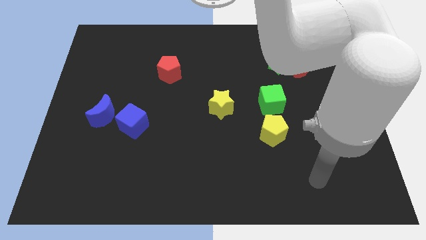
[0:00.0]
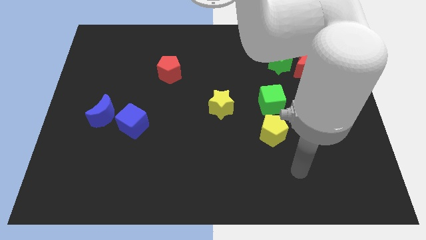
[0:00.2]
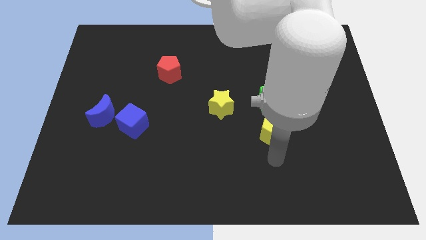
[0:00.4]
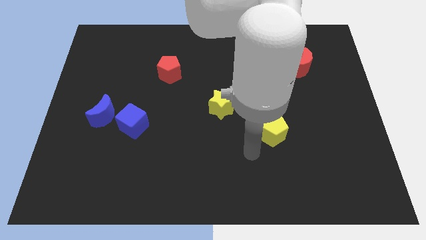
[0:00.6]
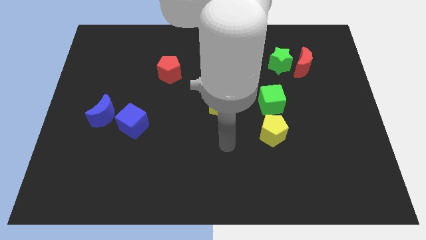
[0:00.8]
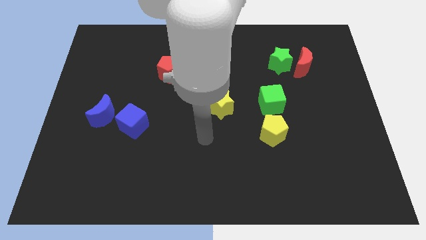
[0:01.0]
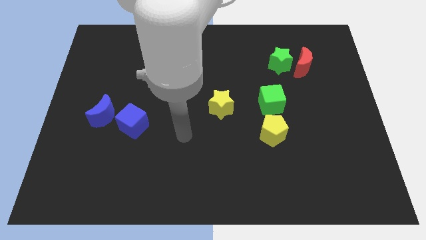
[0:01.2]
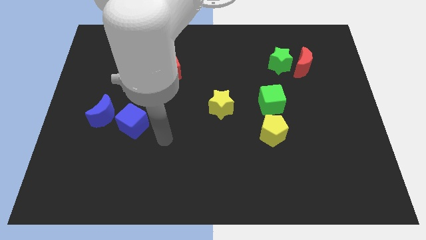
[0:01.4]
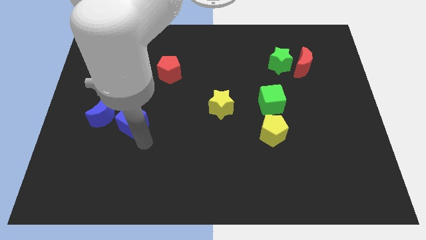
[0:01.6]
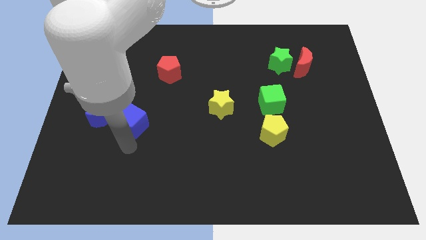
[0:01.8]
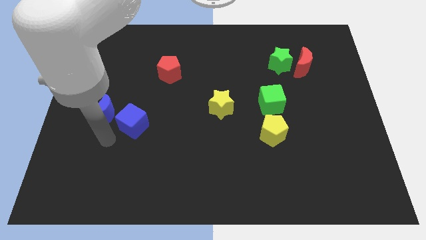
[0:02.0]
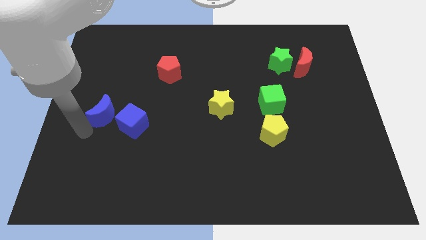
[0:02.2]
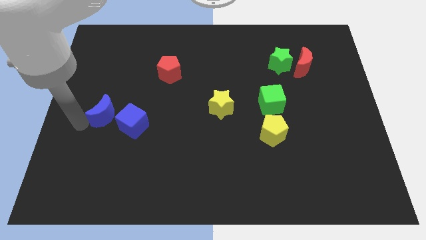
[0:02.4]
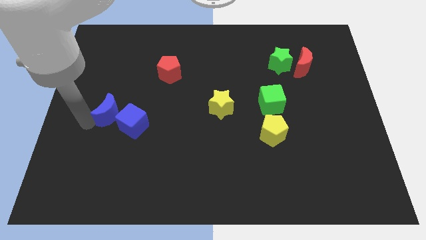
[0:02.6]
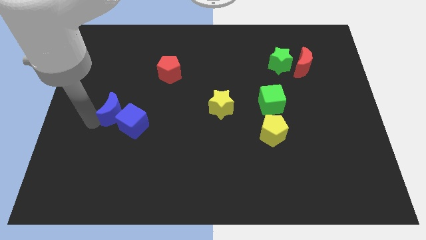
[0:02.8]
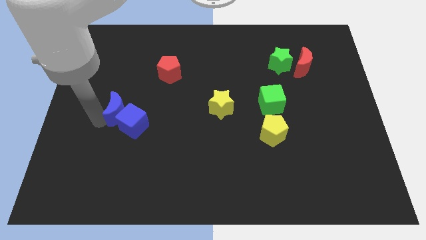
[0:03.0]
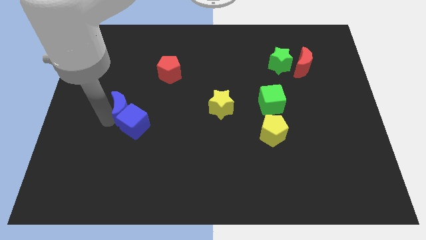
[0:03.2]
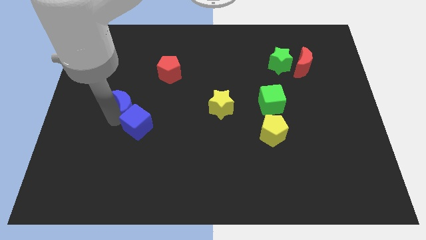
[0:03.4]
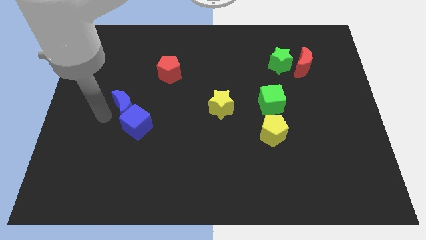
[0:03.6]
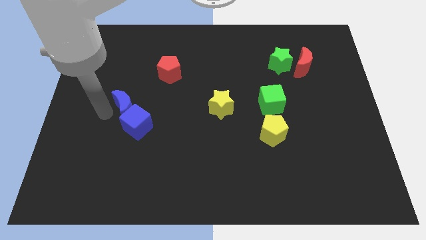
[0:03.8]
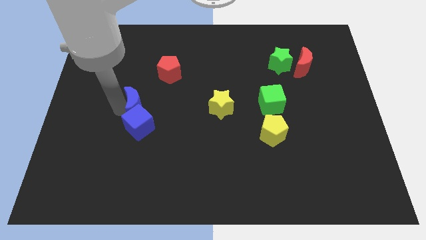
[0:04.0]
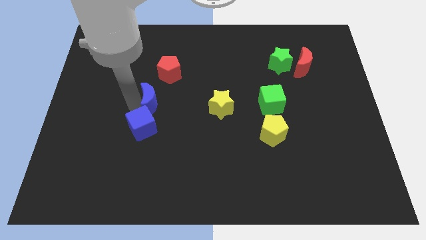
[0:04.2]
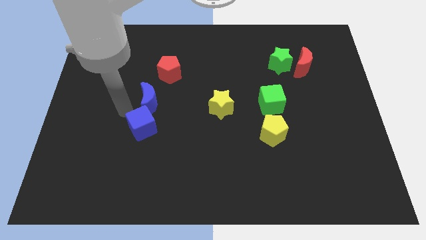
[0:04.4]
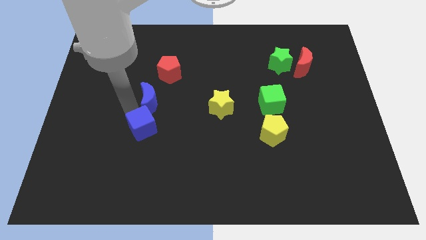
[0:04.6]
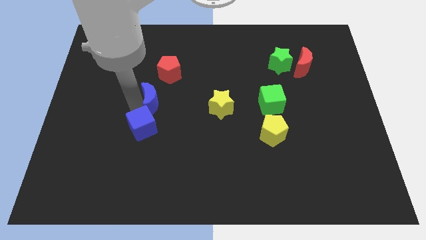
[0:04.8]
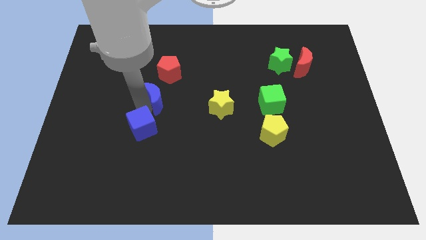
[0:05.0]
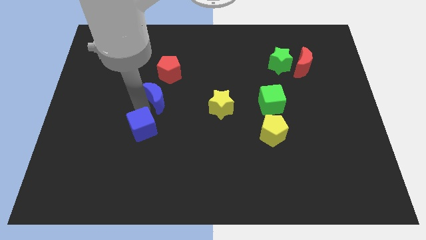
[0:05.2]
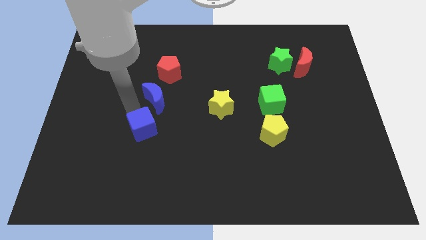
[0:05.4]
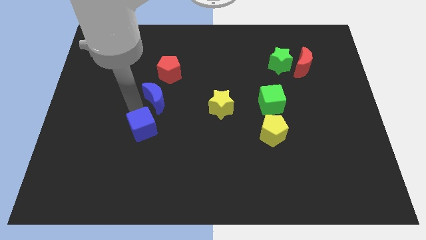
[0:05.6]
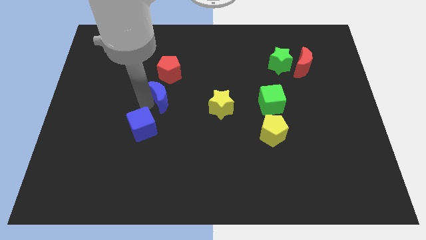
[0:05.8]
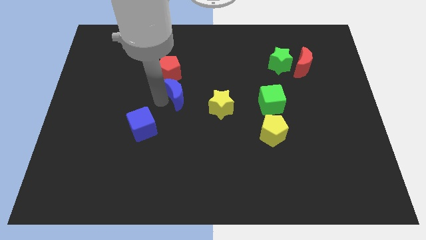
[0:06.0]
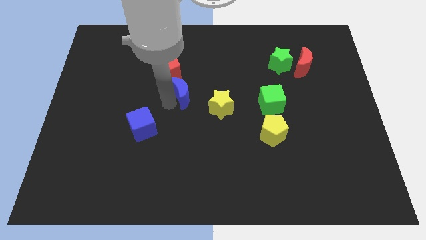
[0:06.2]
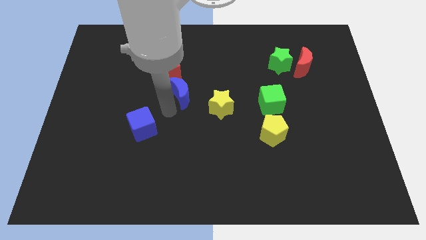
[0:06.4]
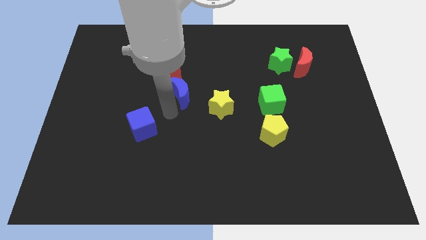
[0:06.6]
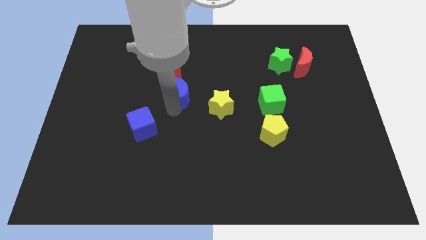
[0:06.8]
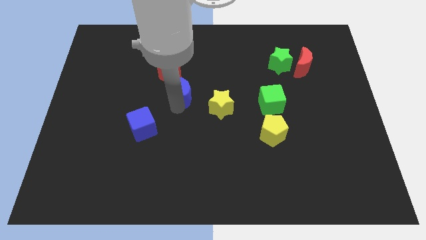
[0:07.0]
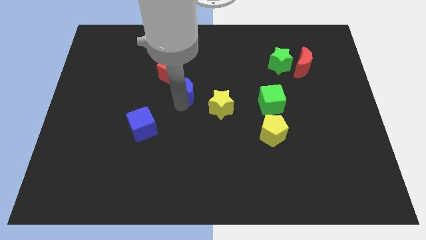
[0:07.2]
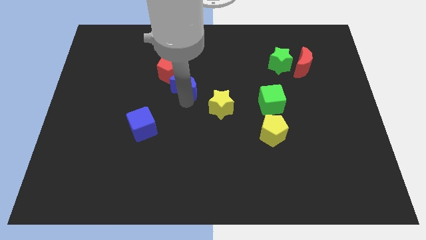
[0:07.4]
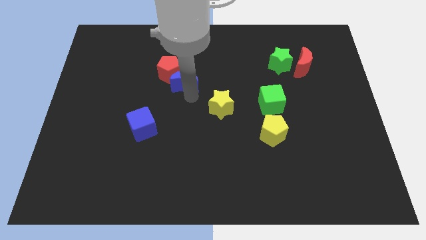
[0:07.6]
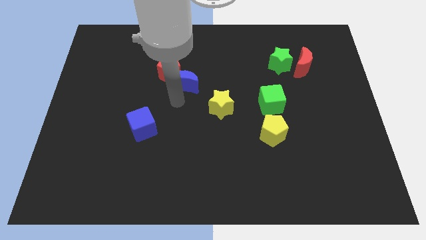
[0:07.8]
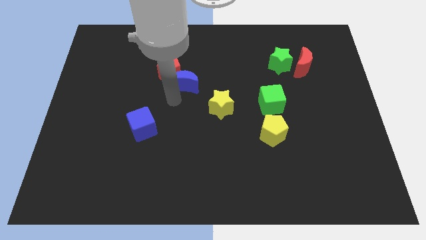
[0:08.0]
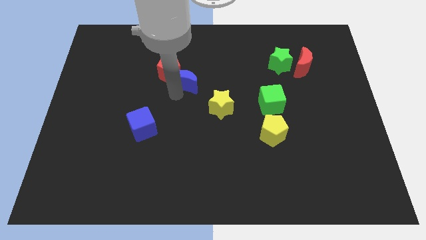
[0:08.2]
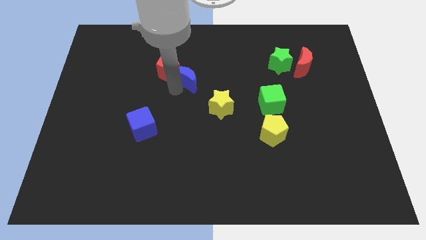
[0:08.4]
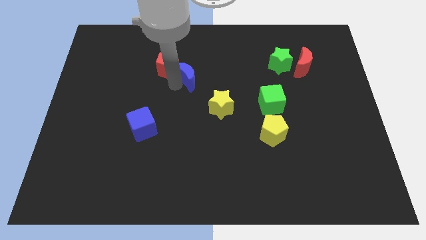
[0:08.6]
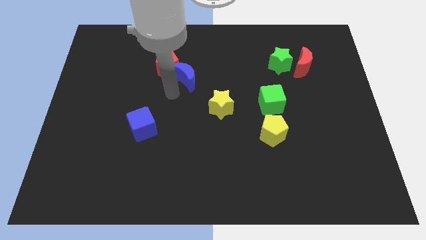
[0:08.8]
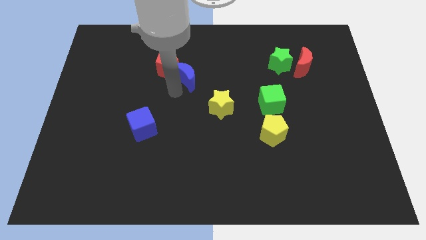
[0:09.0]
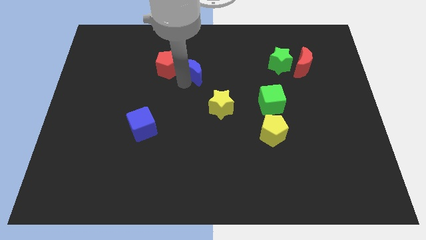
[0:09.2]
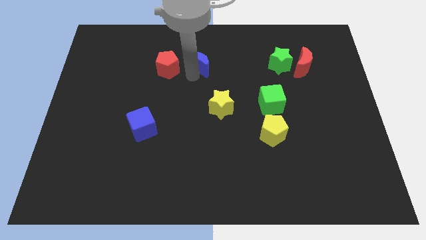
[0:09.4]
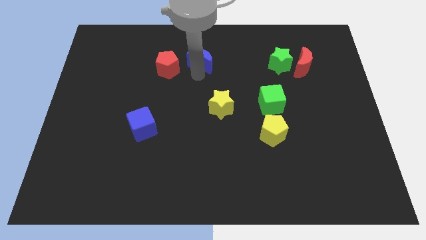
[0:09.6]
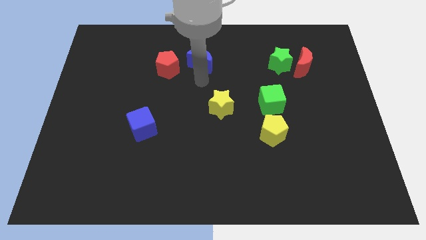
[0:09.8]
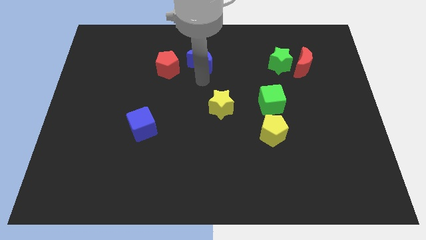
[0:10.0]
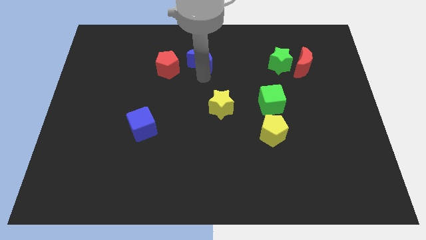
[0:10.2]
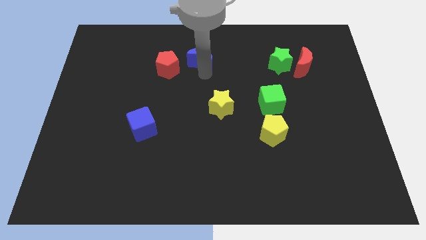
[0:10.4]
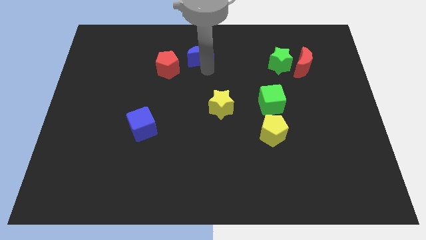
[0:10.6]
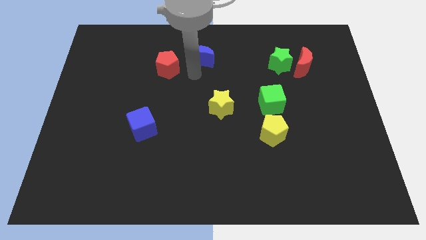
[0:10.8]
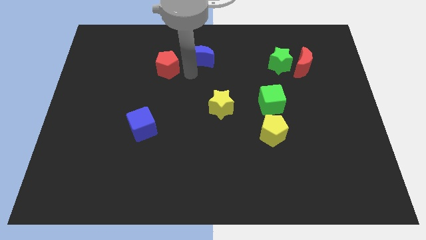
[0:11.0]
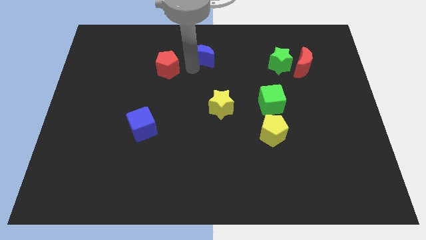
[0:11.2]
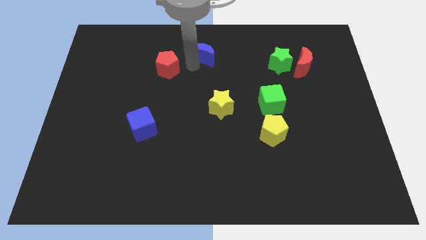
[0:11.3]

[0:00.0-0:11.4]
move the blue moon to the top side

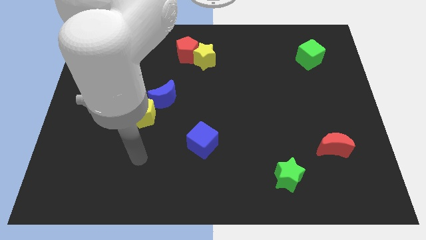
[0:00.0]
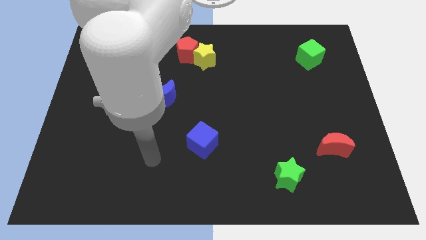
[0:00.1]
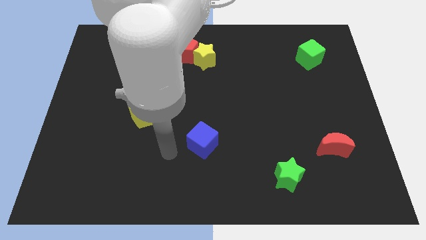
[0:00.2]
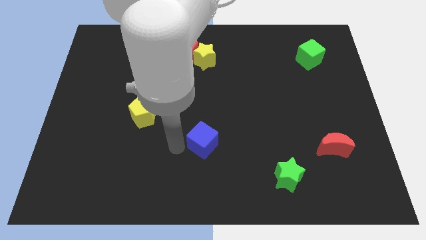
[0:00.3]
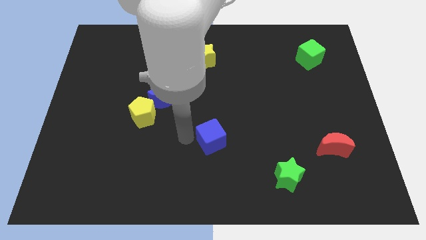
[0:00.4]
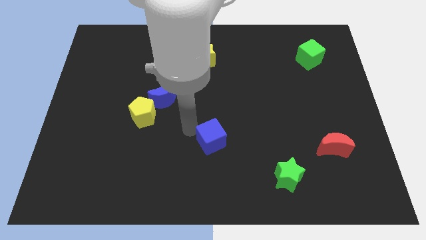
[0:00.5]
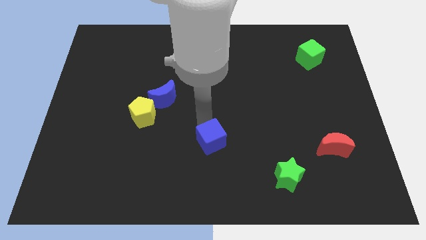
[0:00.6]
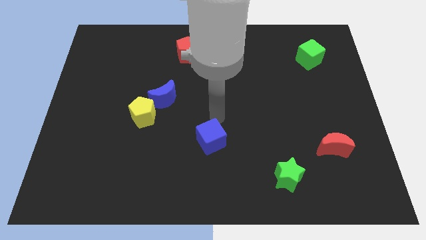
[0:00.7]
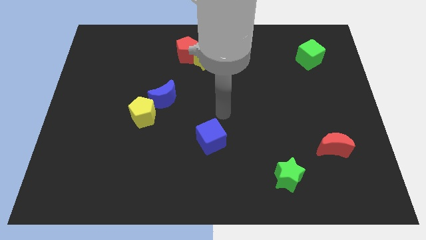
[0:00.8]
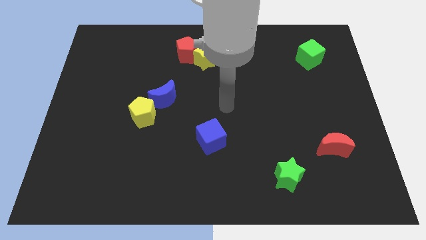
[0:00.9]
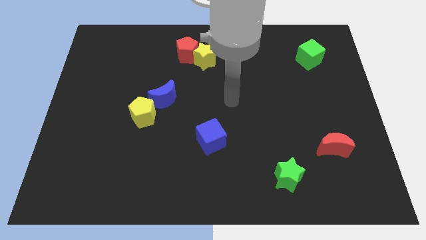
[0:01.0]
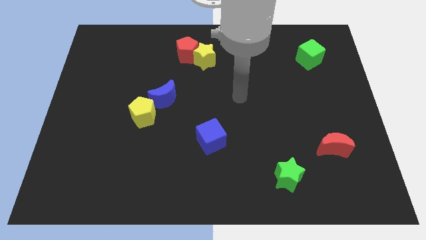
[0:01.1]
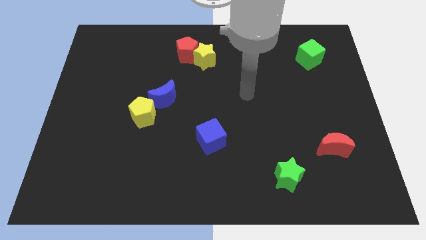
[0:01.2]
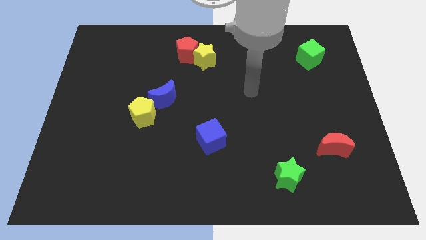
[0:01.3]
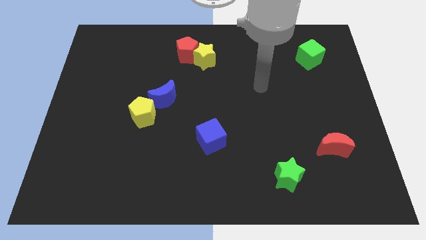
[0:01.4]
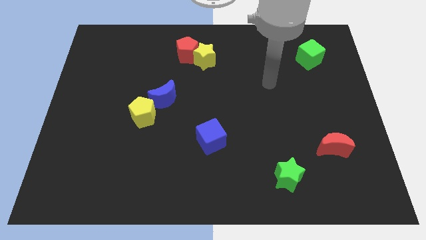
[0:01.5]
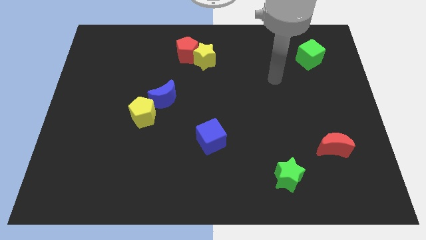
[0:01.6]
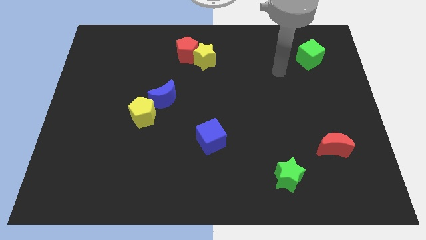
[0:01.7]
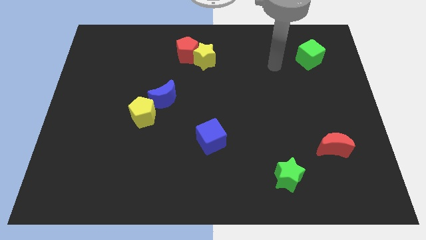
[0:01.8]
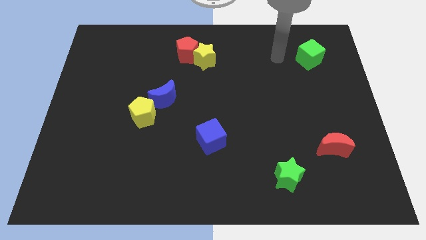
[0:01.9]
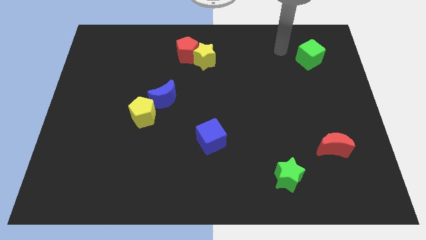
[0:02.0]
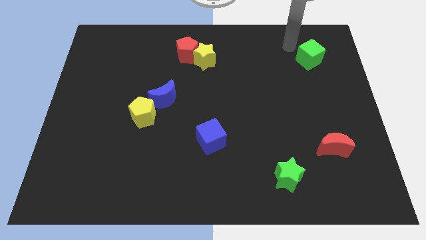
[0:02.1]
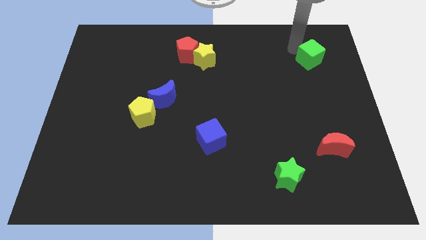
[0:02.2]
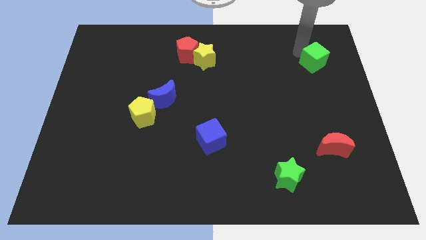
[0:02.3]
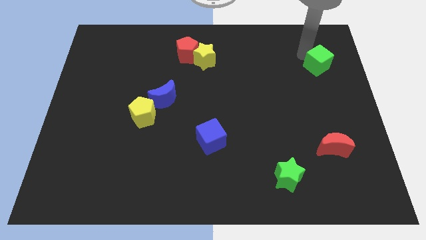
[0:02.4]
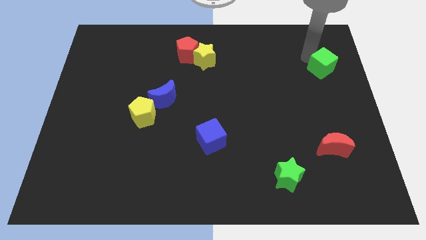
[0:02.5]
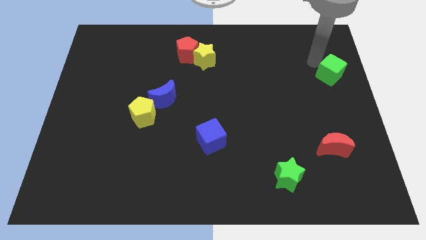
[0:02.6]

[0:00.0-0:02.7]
slide the green cube to the right side
